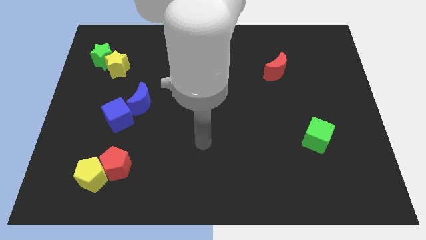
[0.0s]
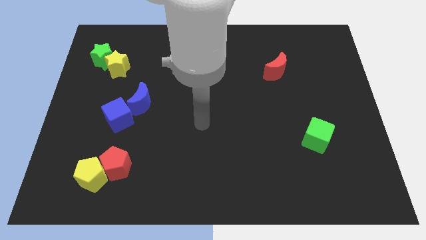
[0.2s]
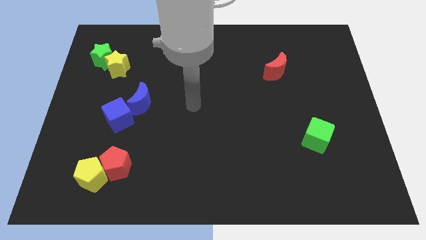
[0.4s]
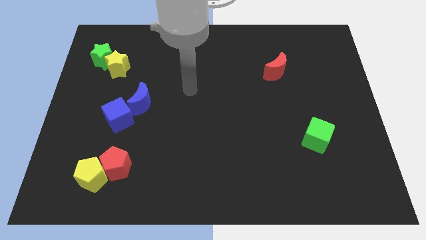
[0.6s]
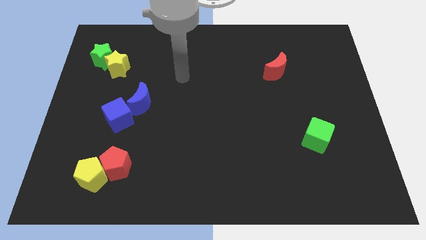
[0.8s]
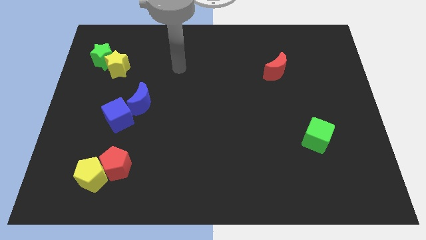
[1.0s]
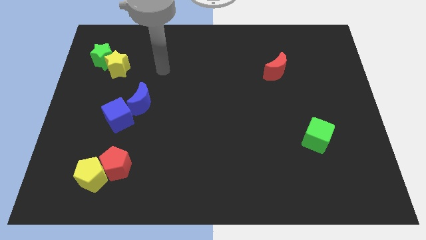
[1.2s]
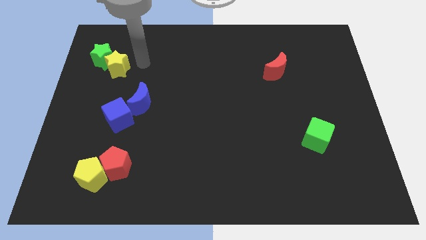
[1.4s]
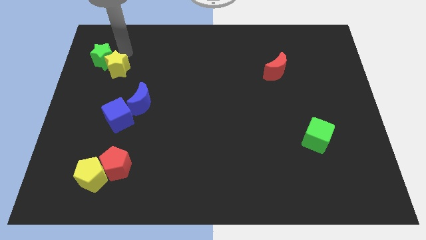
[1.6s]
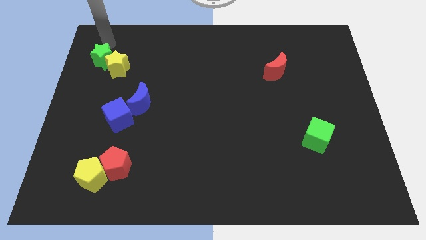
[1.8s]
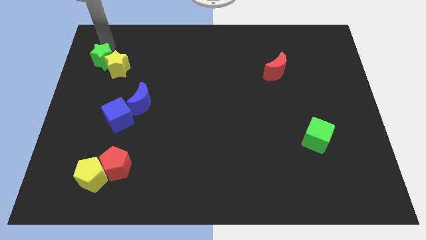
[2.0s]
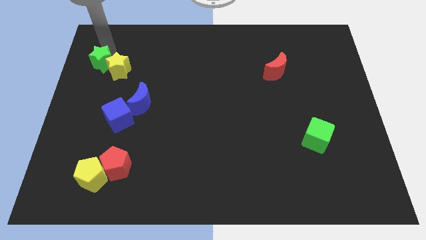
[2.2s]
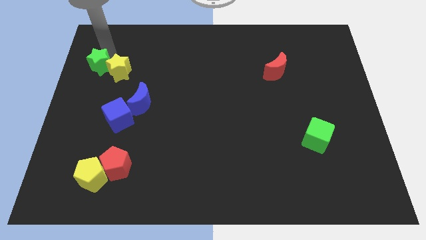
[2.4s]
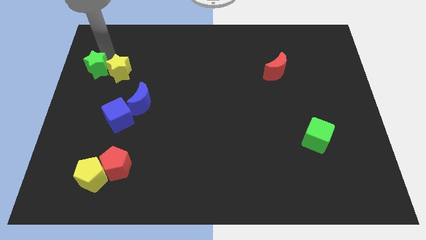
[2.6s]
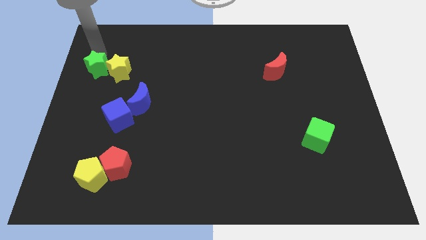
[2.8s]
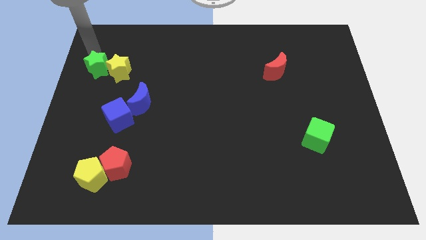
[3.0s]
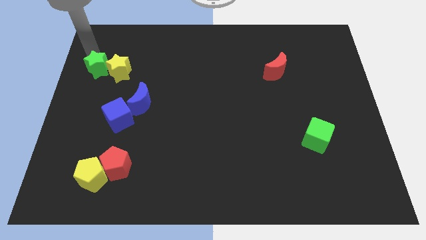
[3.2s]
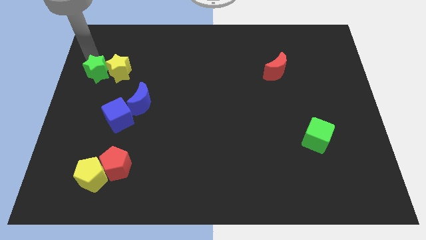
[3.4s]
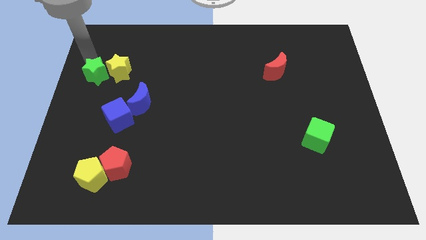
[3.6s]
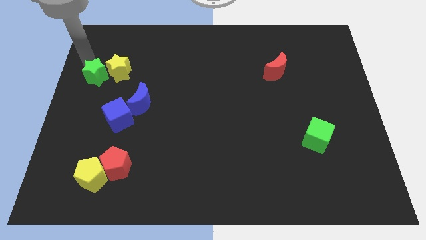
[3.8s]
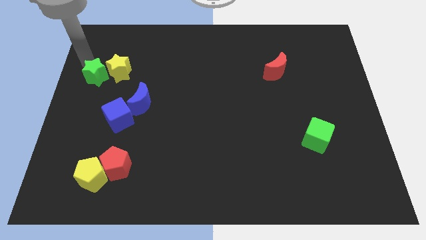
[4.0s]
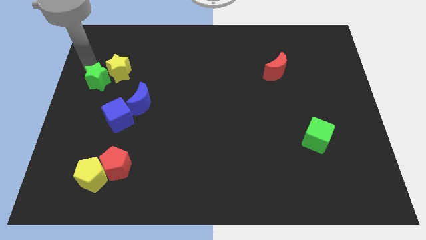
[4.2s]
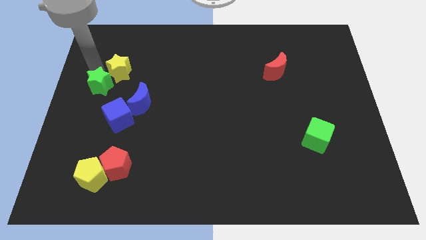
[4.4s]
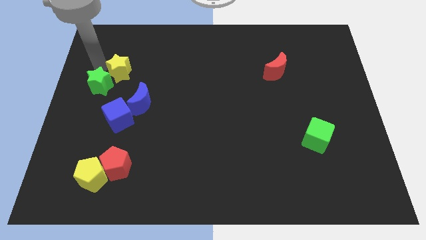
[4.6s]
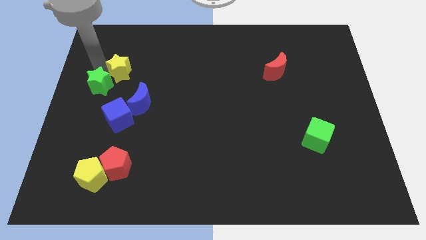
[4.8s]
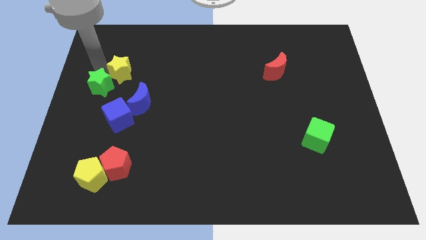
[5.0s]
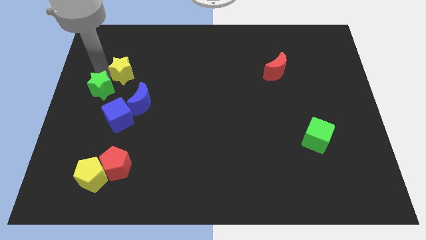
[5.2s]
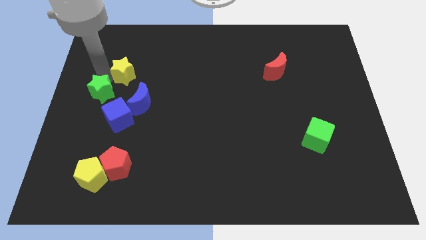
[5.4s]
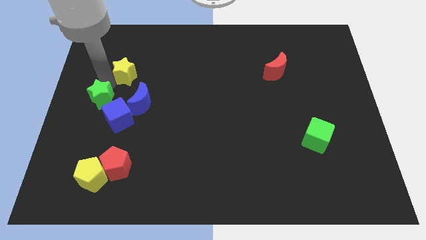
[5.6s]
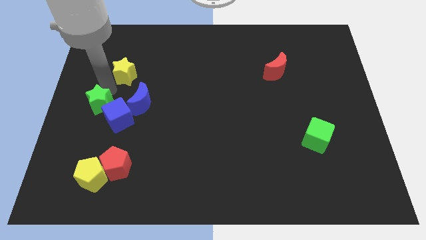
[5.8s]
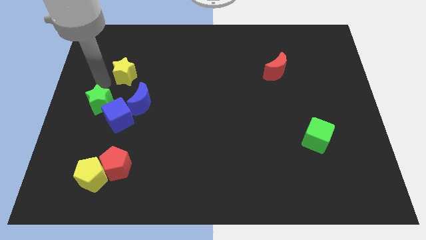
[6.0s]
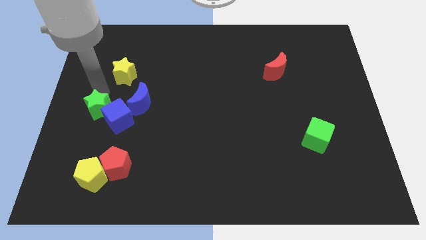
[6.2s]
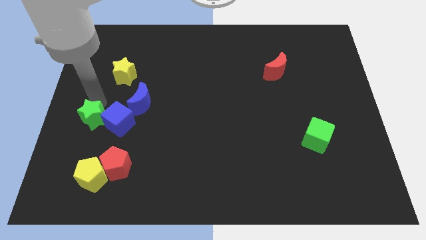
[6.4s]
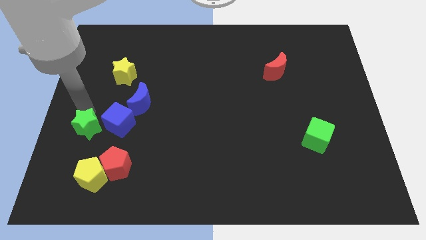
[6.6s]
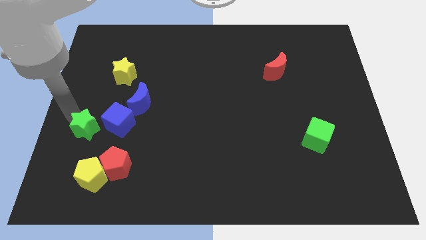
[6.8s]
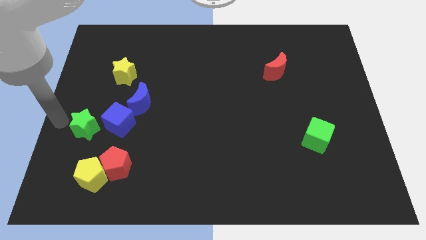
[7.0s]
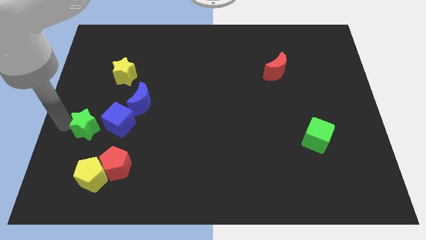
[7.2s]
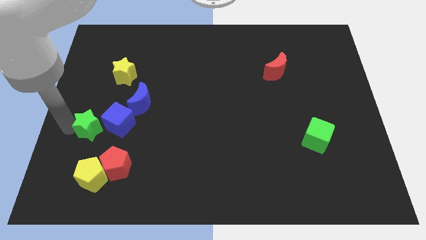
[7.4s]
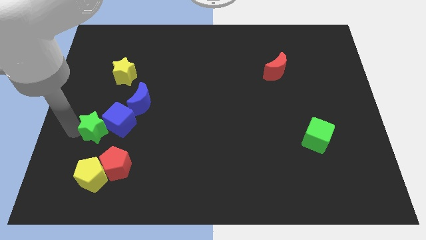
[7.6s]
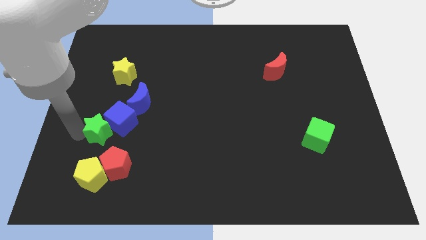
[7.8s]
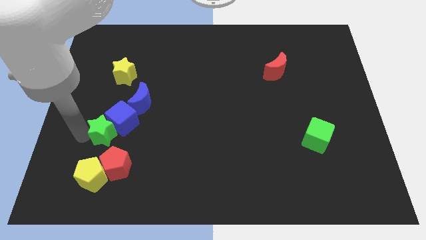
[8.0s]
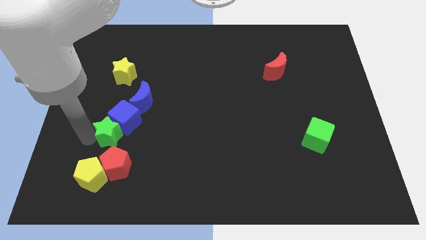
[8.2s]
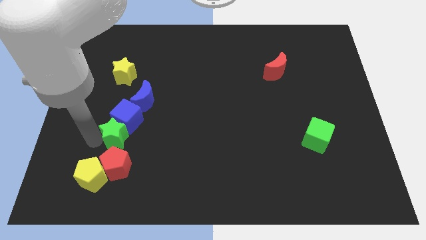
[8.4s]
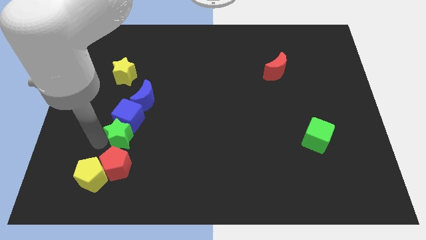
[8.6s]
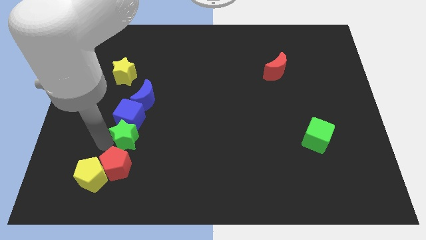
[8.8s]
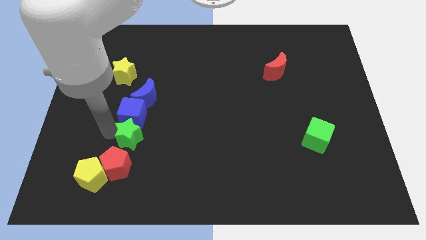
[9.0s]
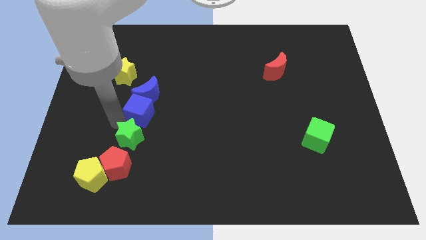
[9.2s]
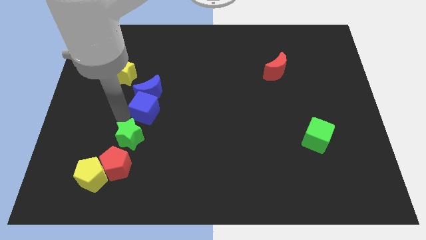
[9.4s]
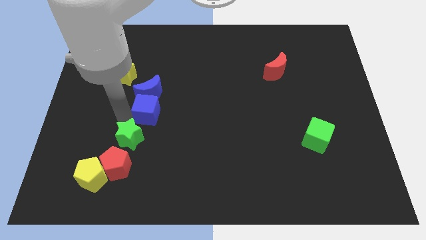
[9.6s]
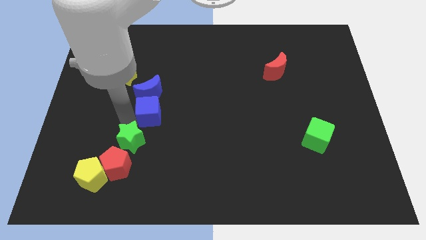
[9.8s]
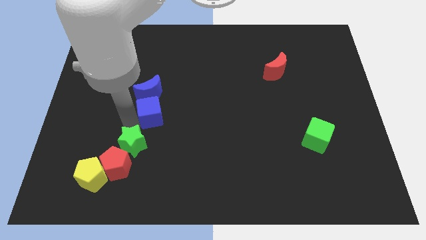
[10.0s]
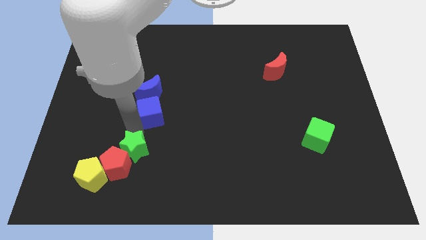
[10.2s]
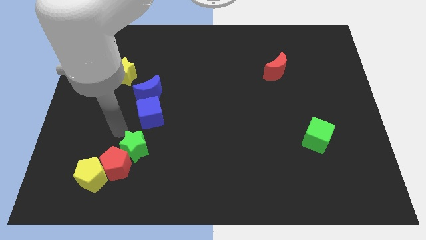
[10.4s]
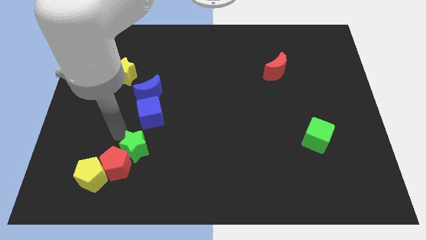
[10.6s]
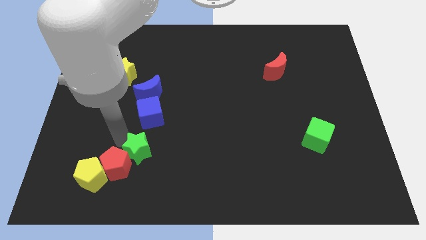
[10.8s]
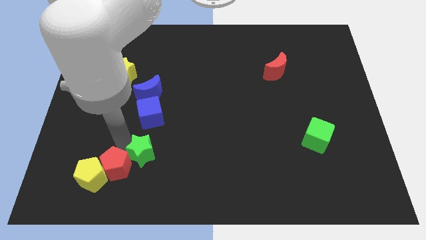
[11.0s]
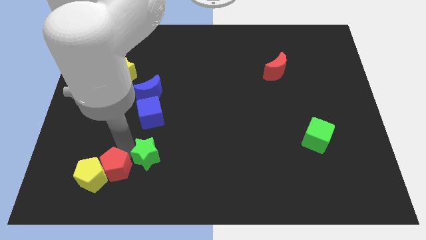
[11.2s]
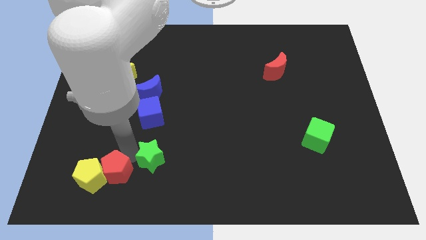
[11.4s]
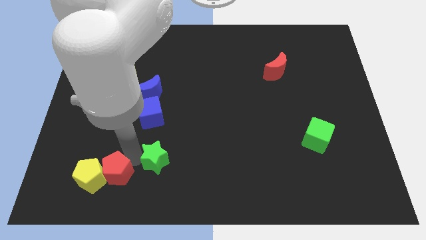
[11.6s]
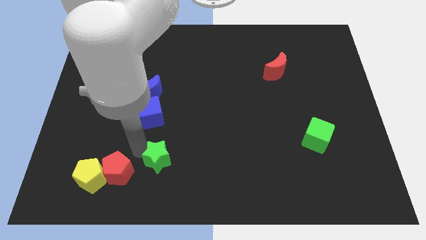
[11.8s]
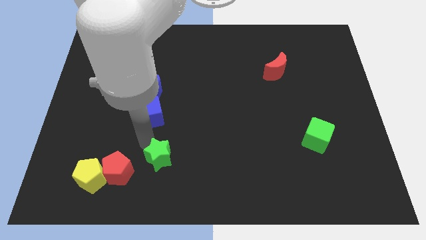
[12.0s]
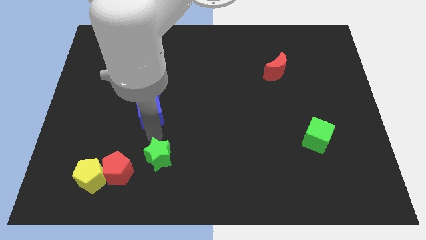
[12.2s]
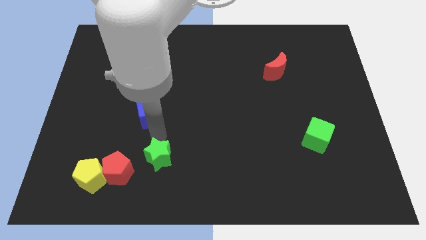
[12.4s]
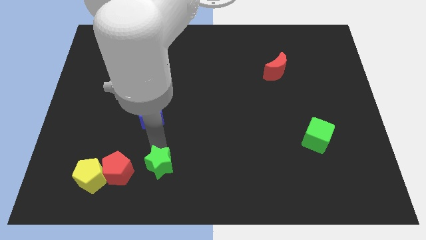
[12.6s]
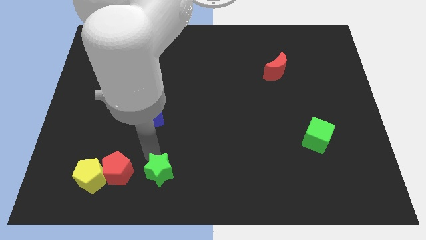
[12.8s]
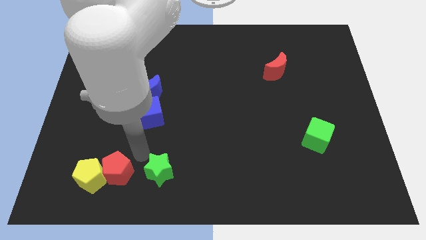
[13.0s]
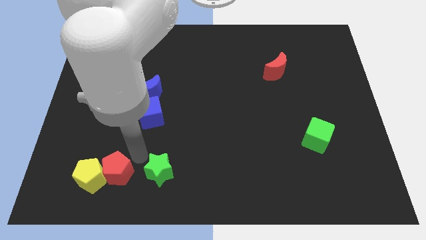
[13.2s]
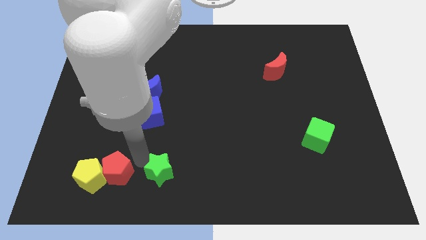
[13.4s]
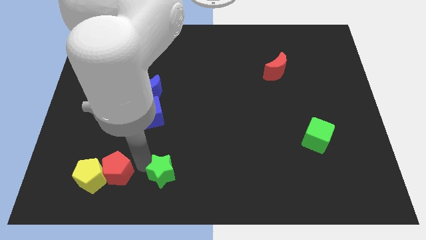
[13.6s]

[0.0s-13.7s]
put the green star to the bottom
